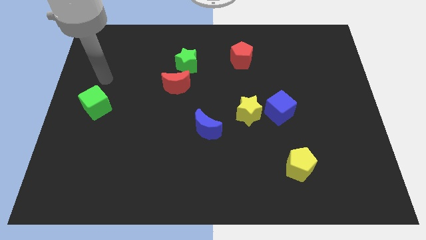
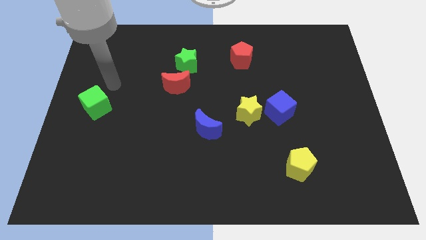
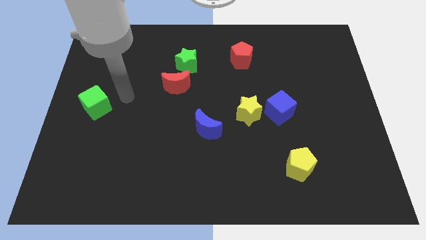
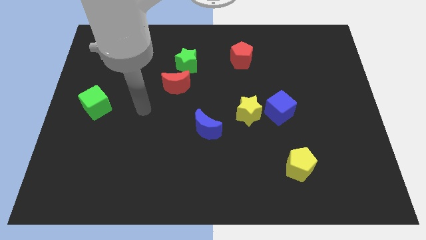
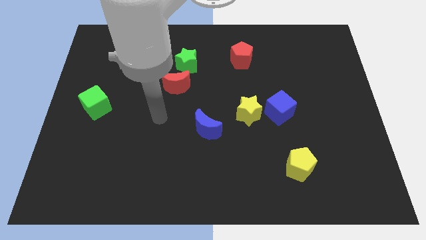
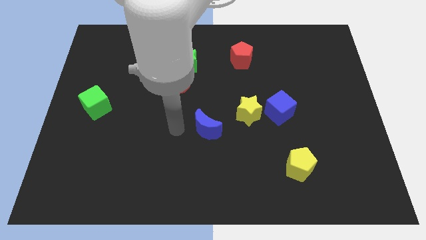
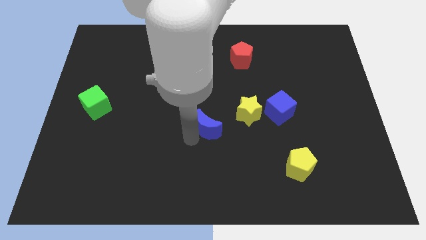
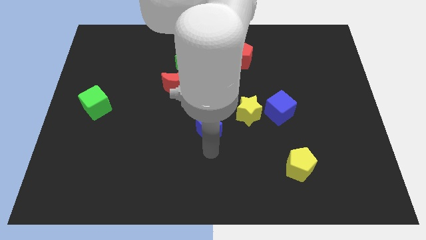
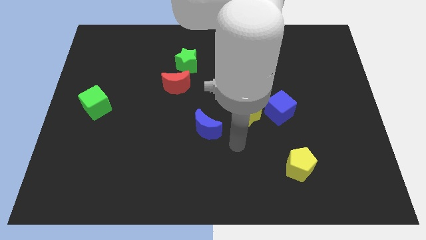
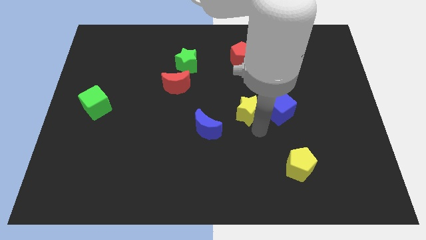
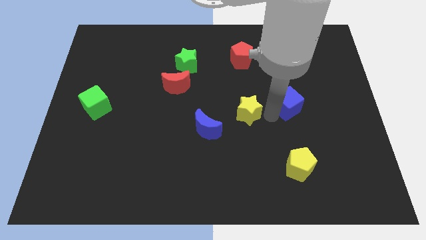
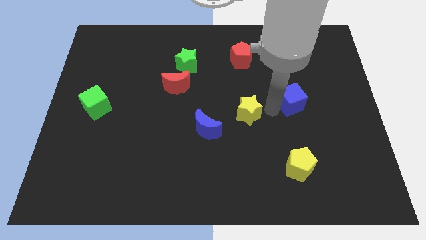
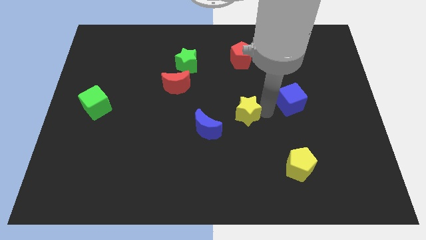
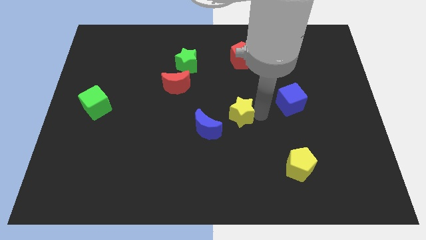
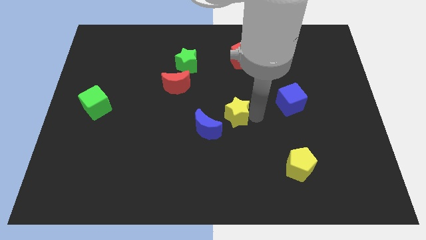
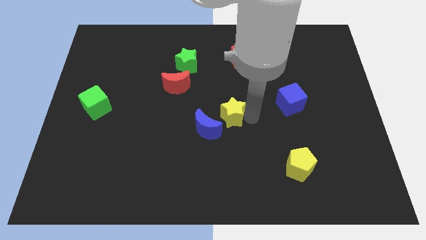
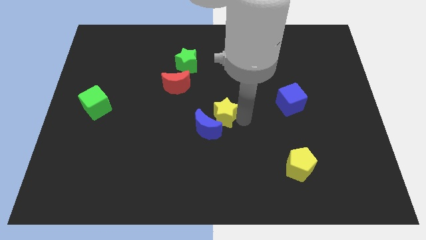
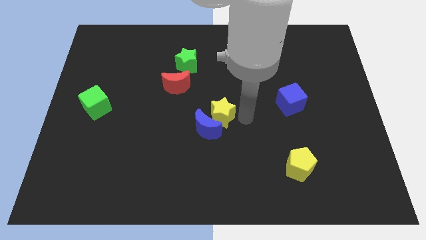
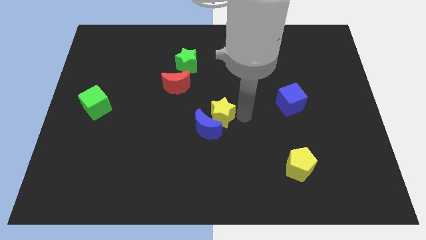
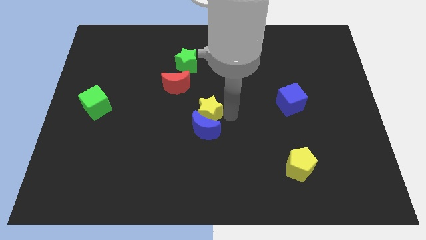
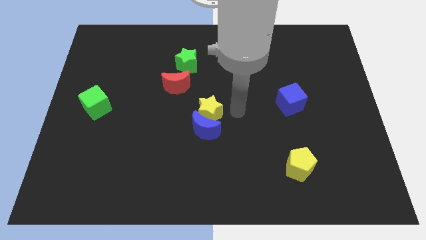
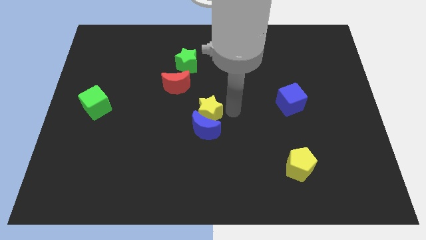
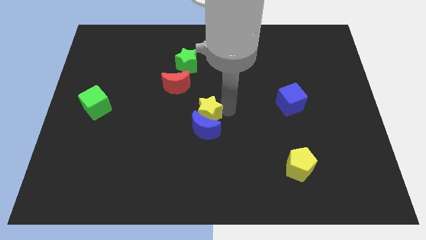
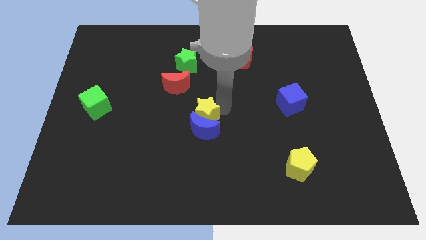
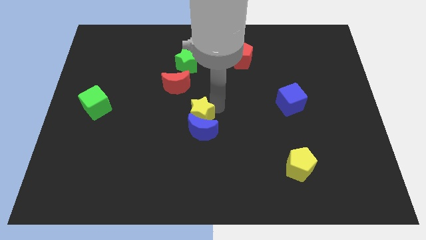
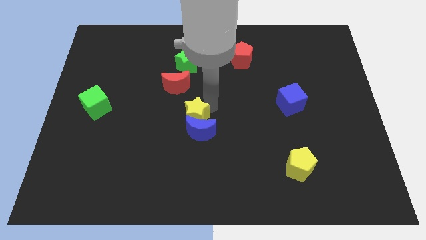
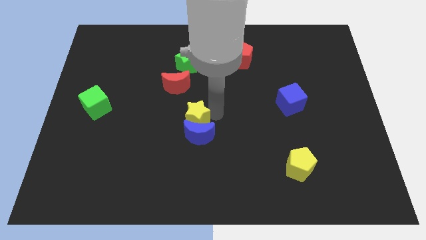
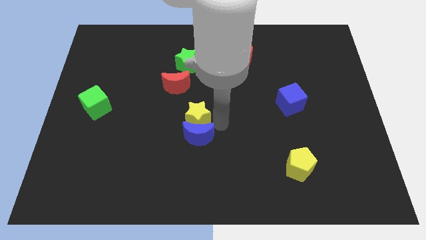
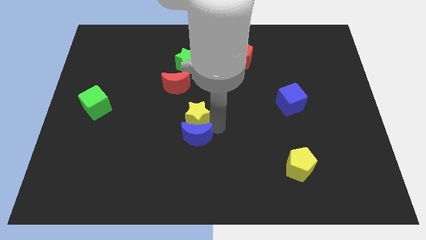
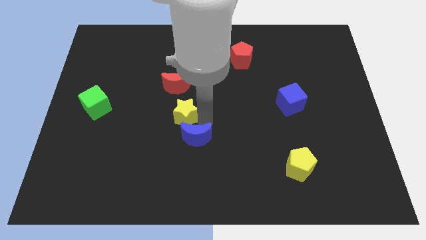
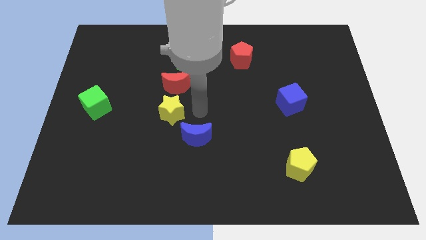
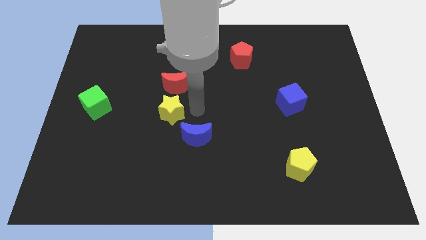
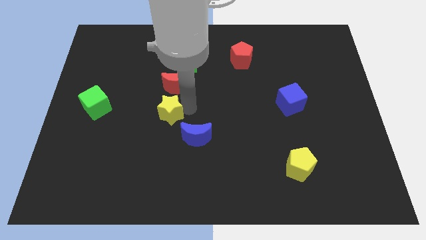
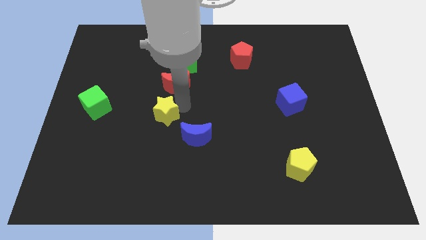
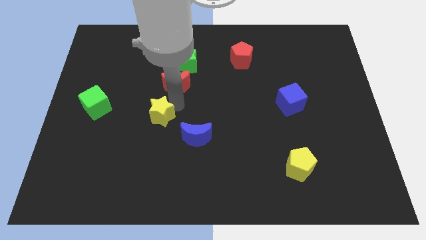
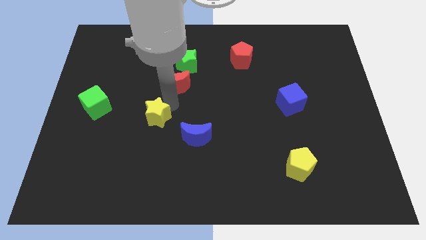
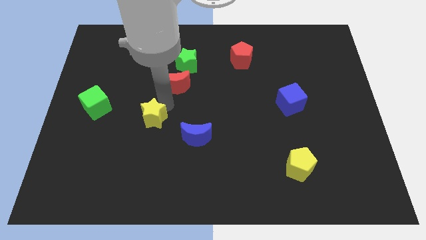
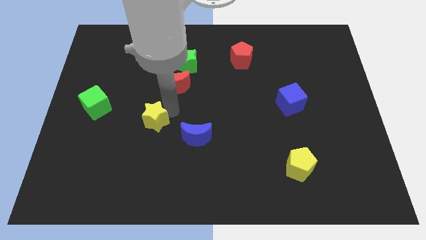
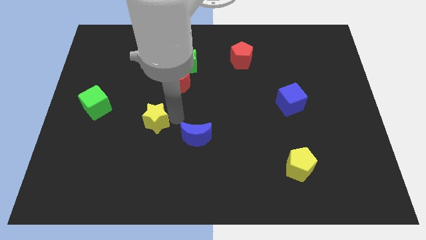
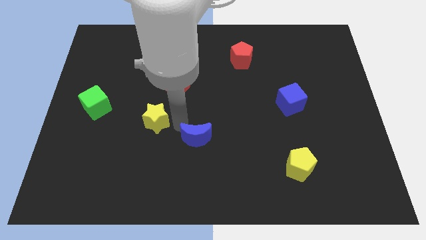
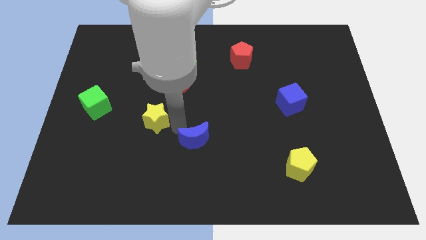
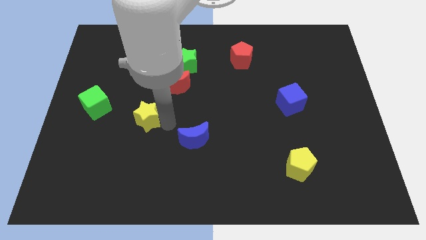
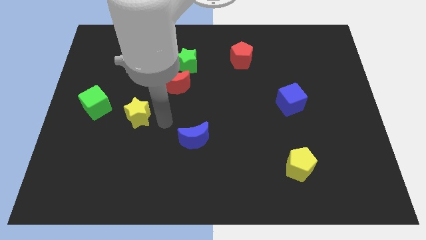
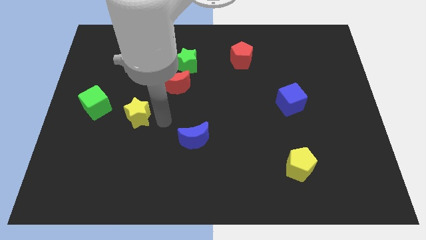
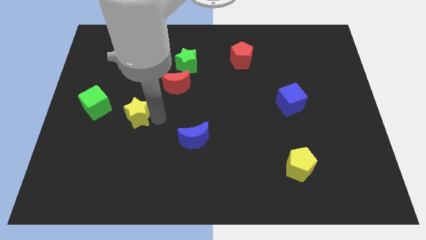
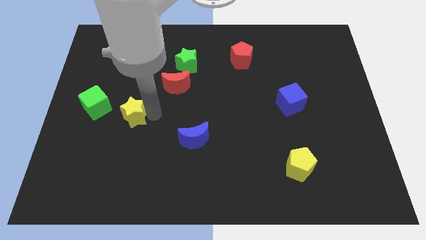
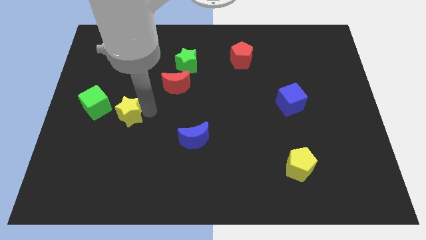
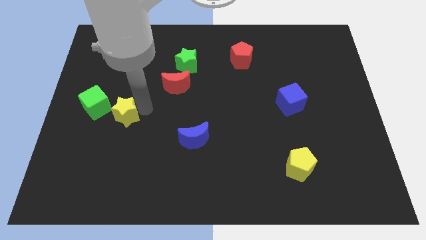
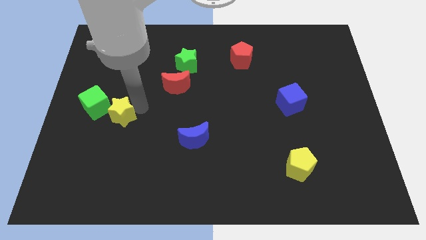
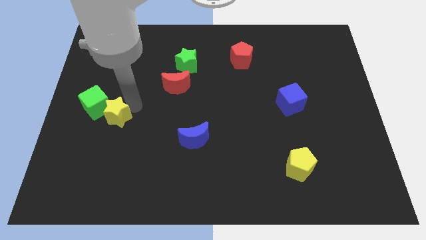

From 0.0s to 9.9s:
slide the yellow star to the green cube

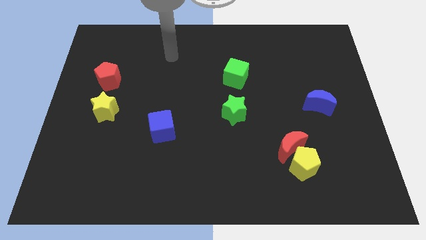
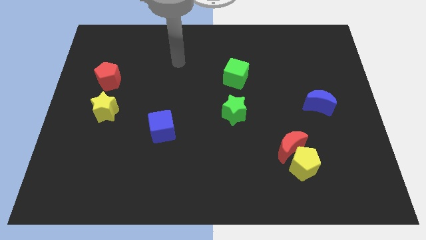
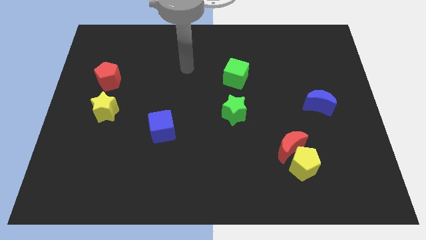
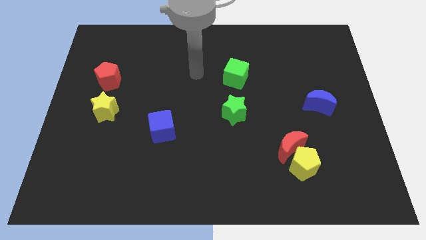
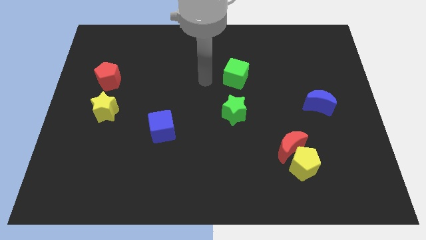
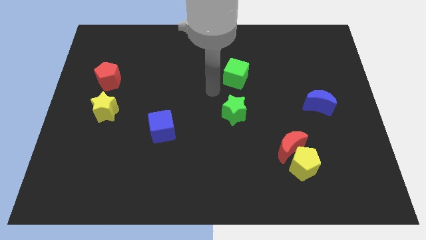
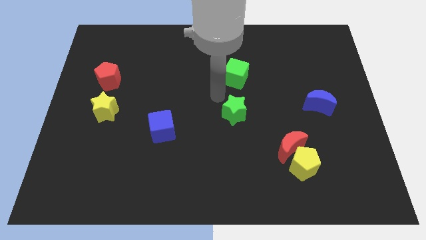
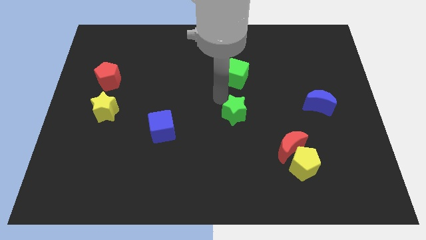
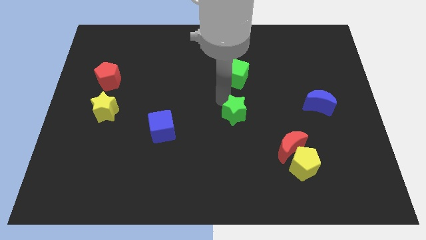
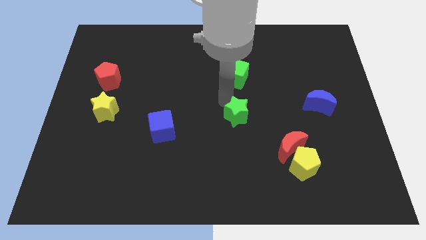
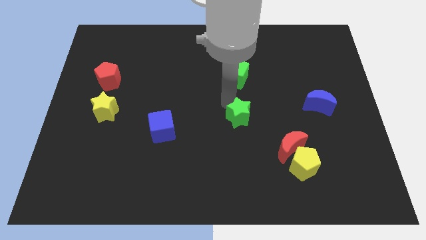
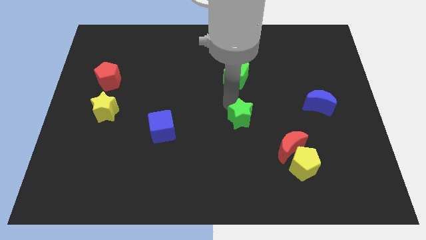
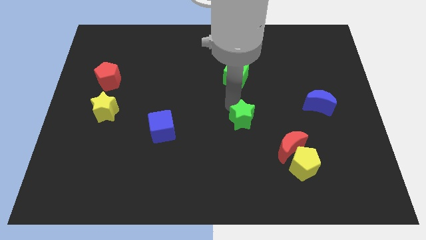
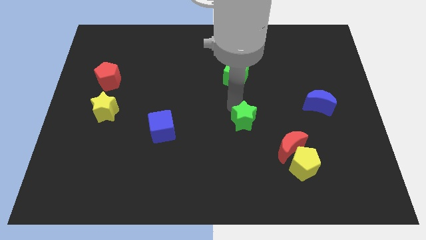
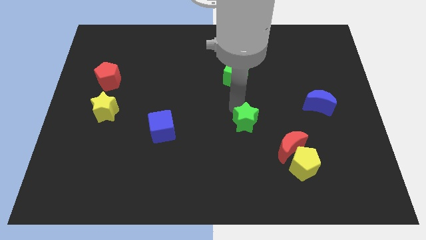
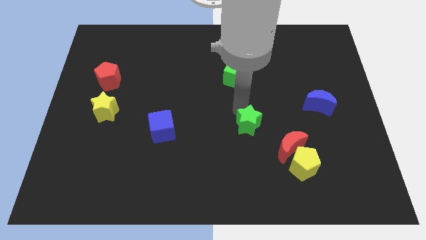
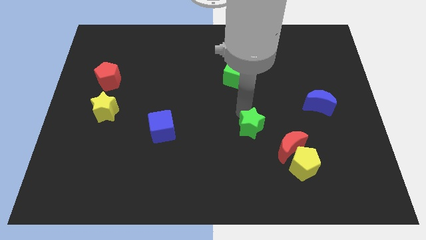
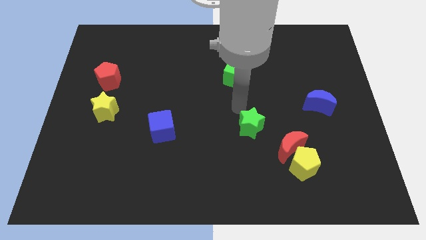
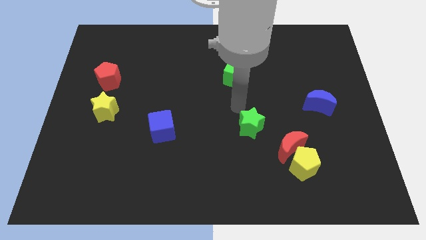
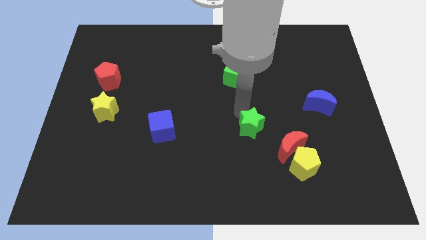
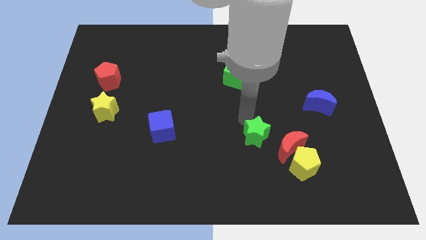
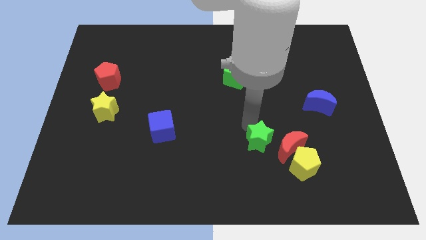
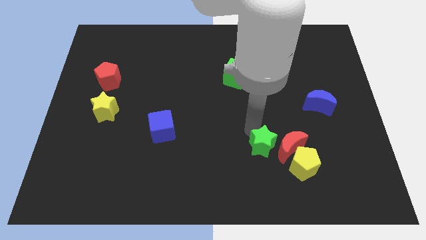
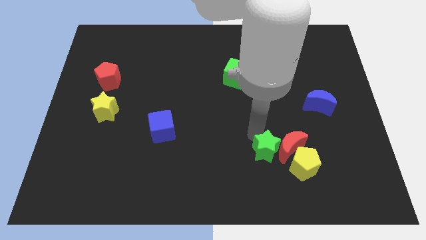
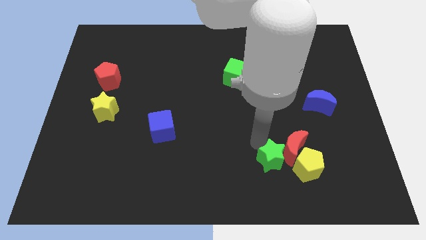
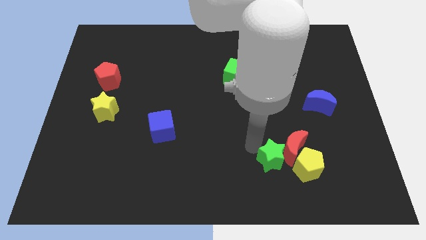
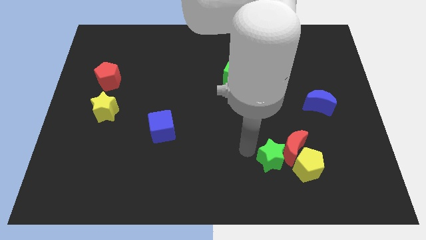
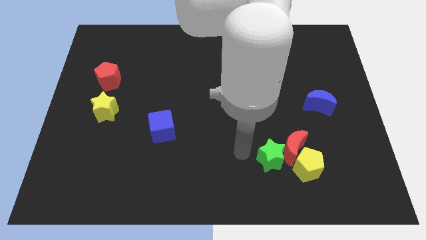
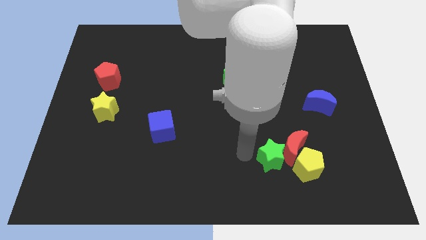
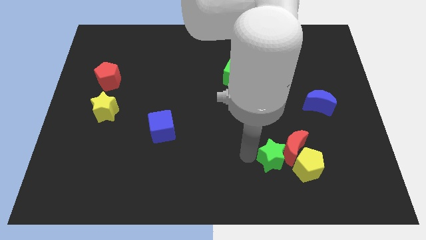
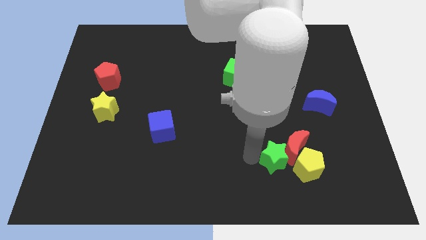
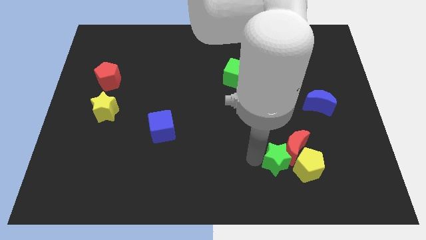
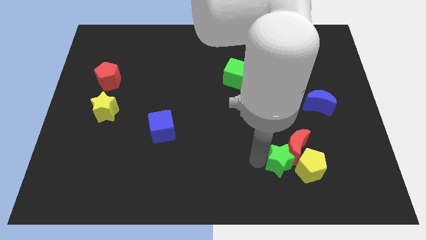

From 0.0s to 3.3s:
put the green star close to the yellow pentagon
